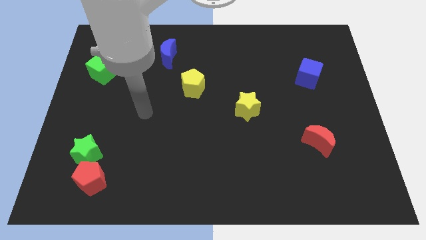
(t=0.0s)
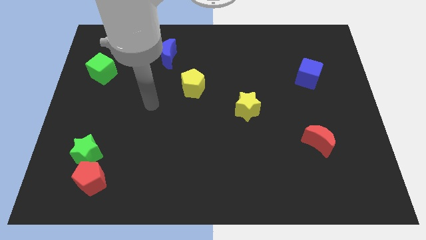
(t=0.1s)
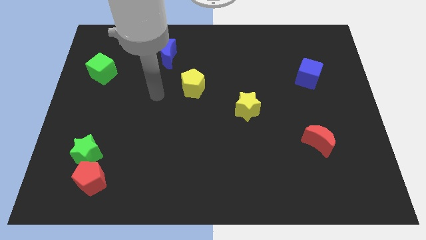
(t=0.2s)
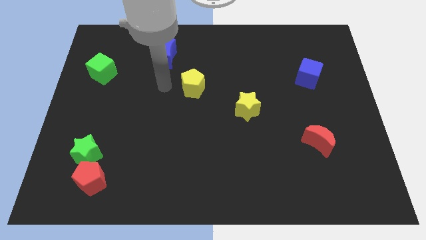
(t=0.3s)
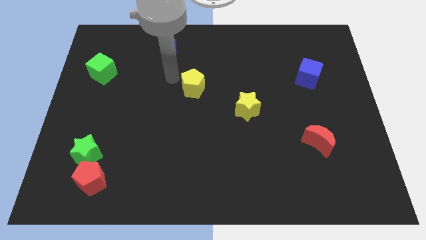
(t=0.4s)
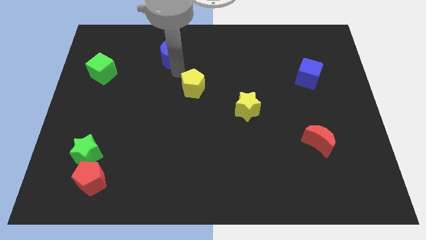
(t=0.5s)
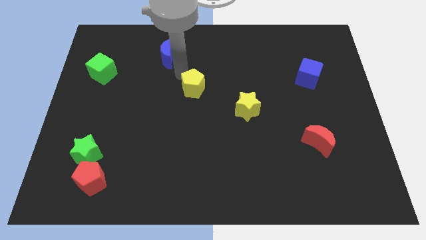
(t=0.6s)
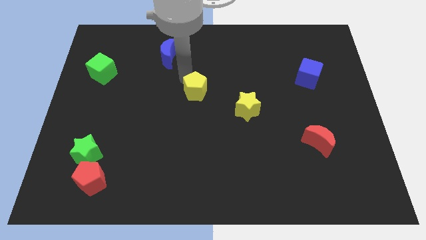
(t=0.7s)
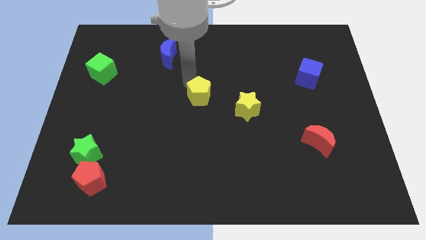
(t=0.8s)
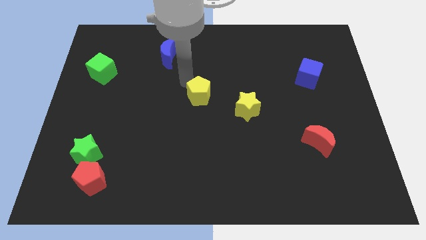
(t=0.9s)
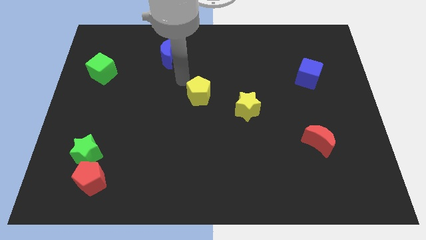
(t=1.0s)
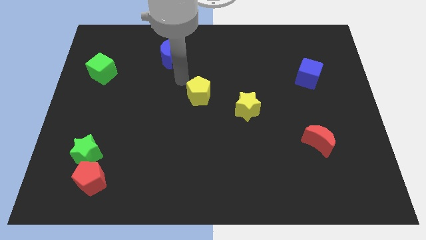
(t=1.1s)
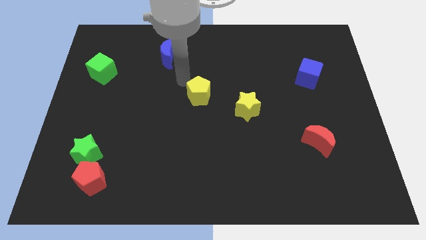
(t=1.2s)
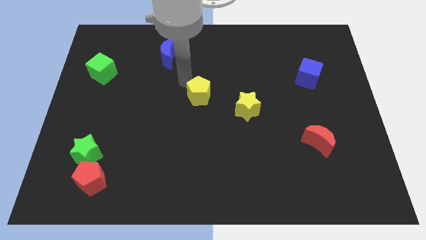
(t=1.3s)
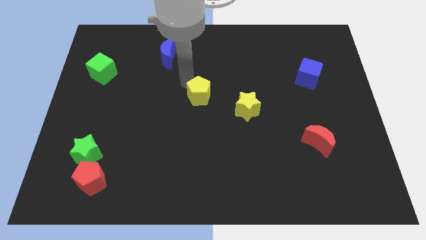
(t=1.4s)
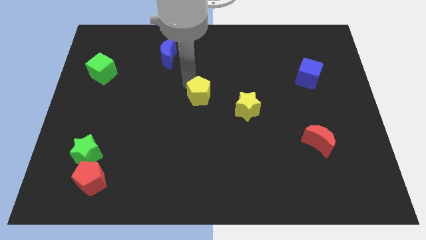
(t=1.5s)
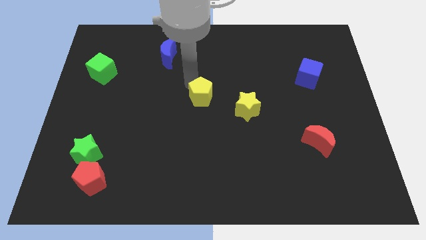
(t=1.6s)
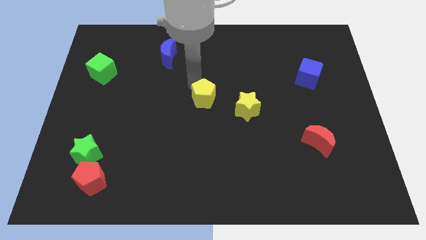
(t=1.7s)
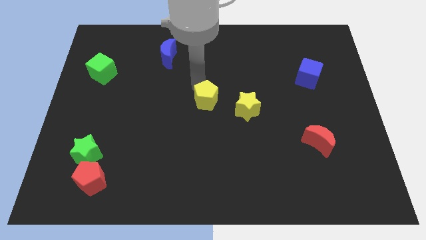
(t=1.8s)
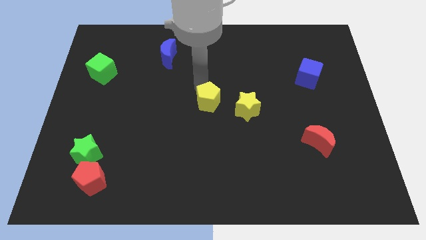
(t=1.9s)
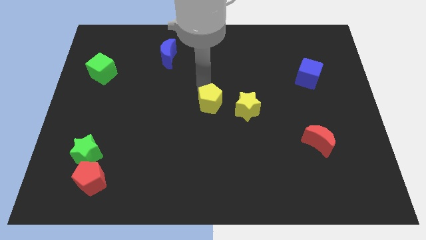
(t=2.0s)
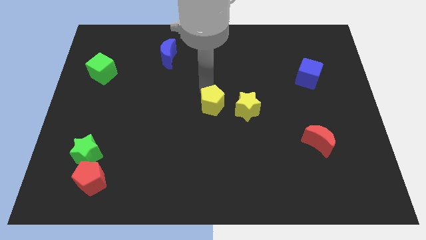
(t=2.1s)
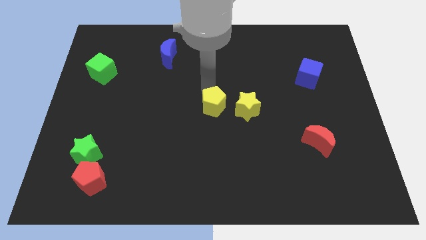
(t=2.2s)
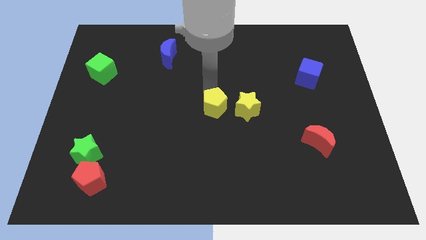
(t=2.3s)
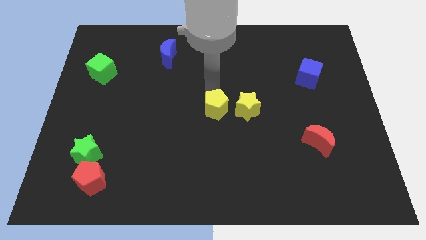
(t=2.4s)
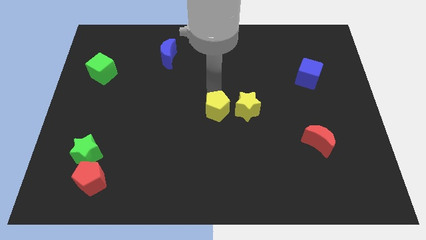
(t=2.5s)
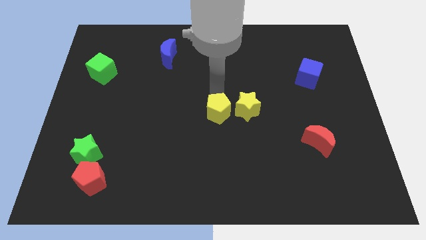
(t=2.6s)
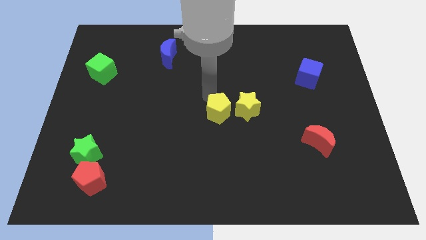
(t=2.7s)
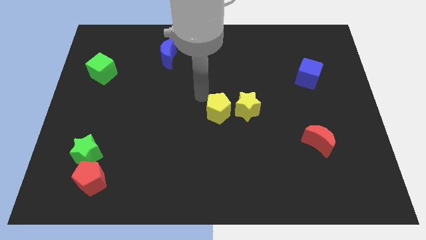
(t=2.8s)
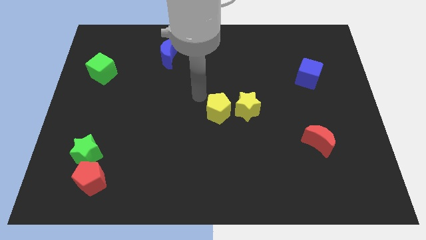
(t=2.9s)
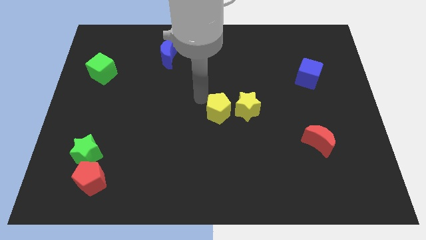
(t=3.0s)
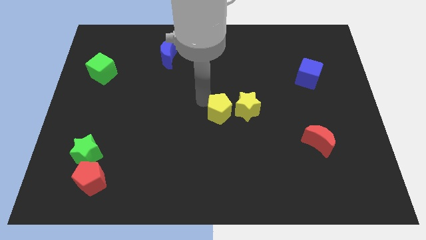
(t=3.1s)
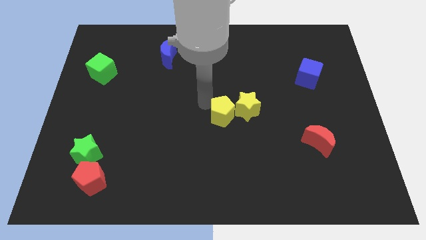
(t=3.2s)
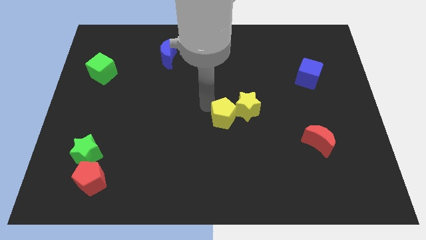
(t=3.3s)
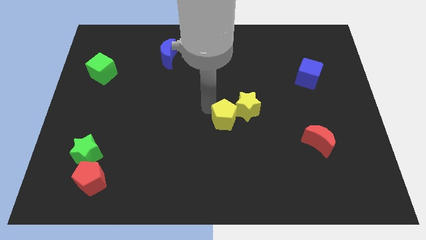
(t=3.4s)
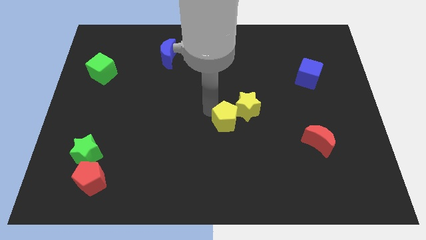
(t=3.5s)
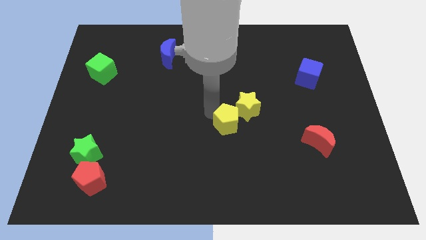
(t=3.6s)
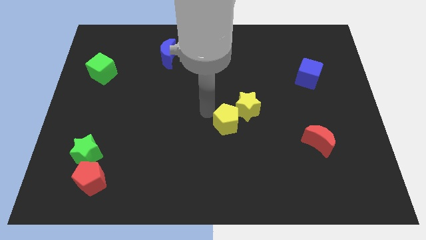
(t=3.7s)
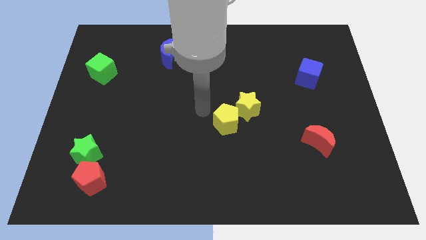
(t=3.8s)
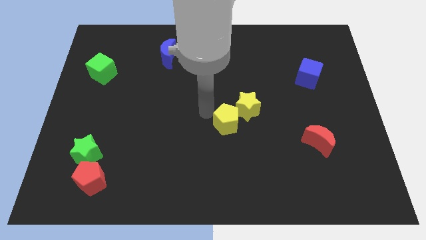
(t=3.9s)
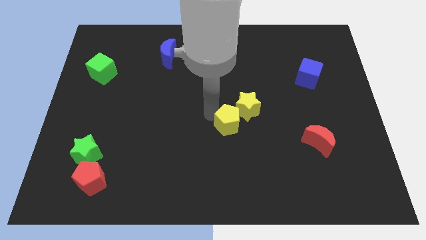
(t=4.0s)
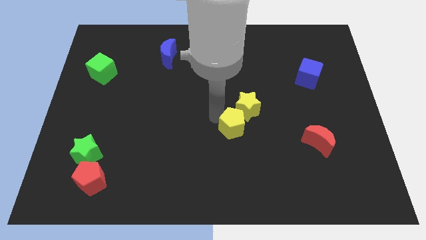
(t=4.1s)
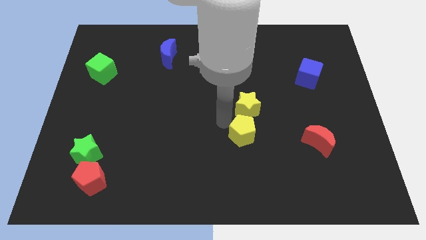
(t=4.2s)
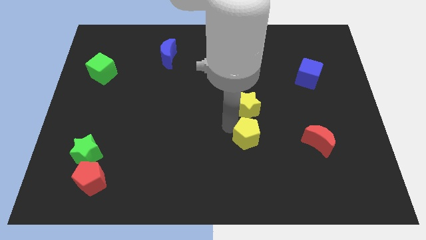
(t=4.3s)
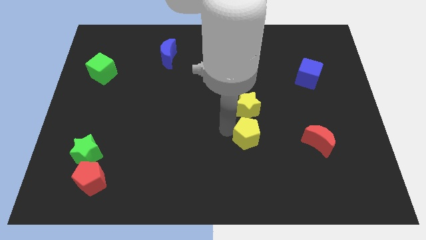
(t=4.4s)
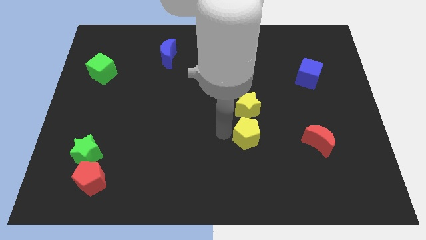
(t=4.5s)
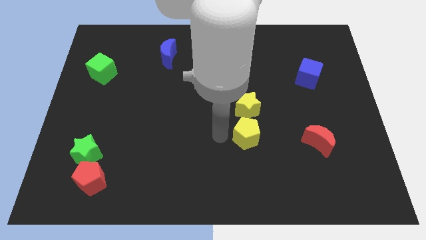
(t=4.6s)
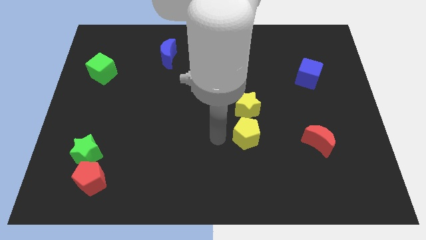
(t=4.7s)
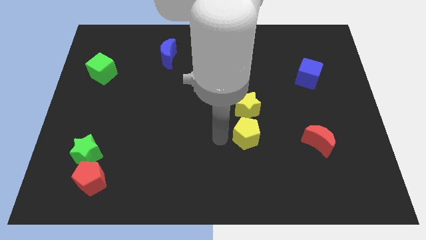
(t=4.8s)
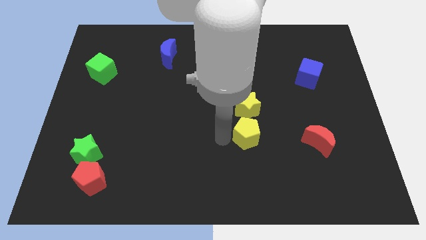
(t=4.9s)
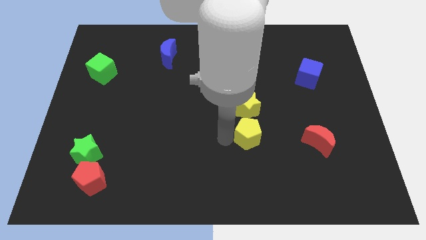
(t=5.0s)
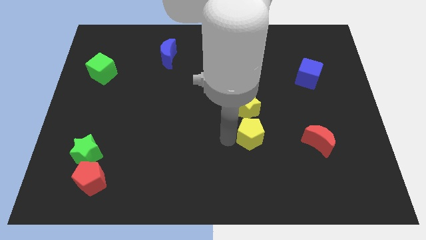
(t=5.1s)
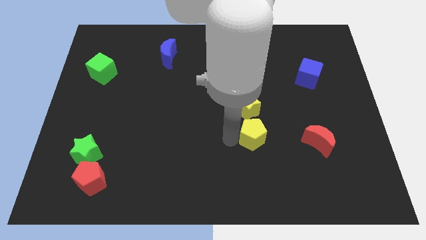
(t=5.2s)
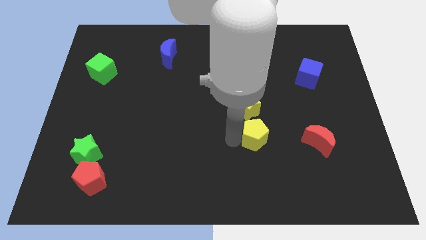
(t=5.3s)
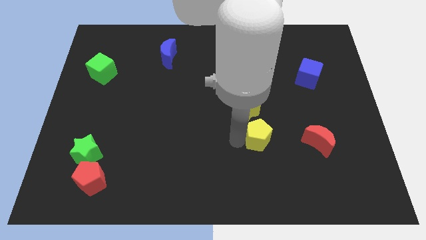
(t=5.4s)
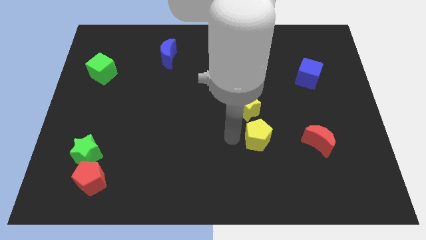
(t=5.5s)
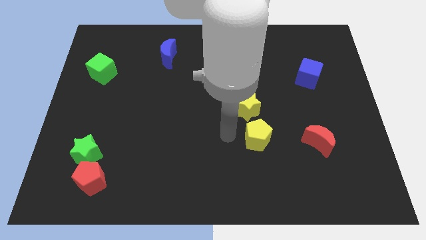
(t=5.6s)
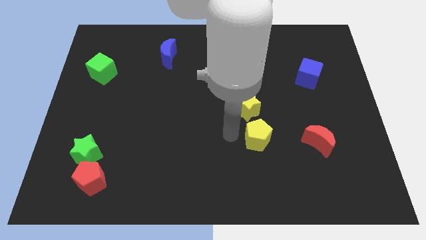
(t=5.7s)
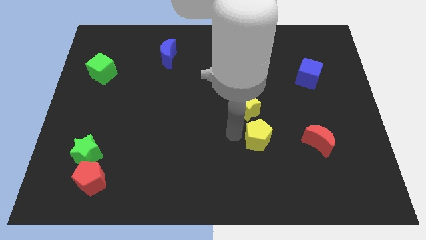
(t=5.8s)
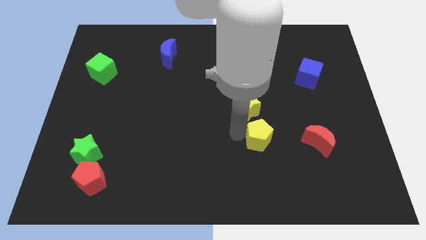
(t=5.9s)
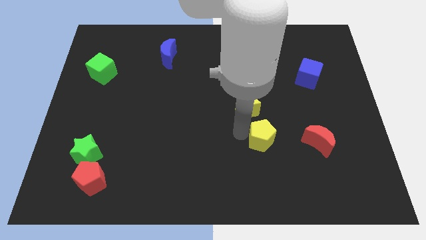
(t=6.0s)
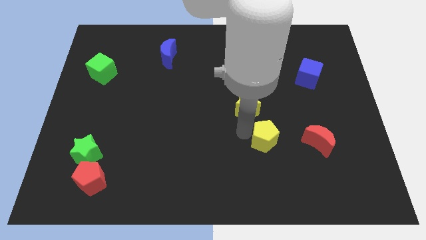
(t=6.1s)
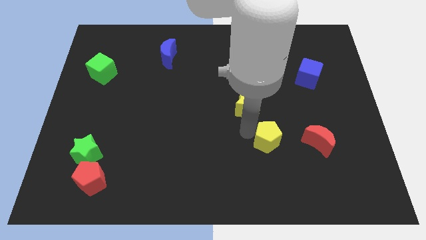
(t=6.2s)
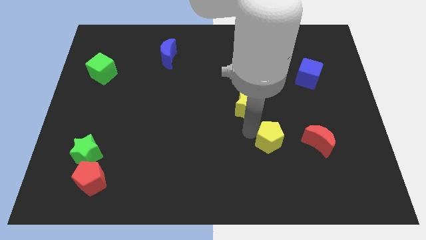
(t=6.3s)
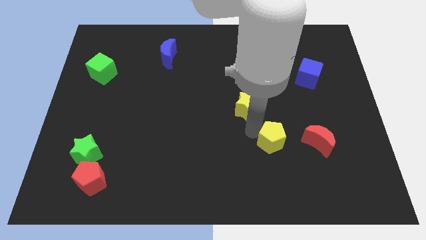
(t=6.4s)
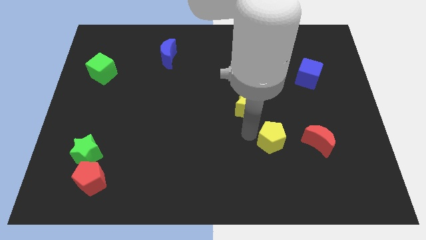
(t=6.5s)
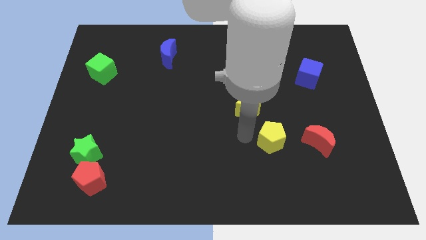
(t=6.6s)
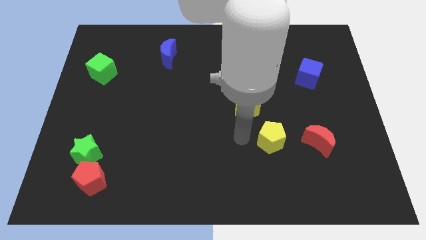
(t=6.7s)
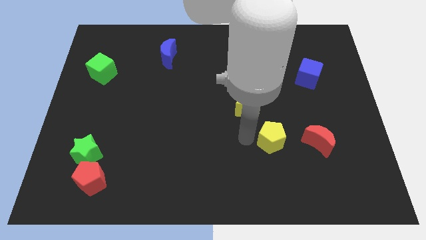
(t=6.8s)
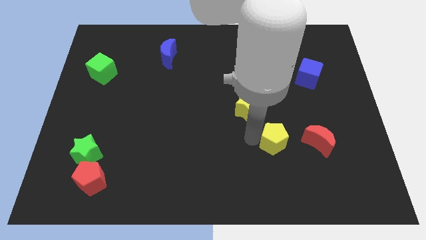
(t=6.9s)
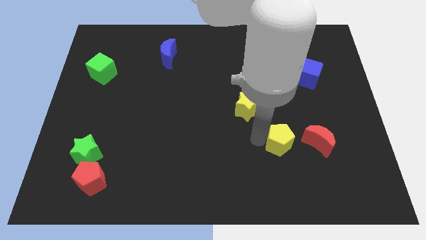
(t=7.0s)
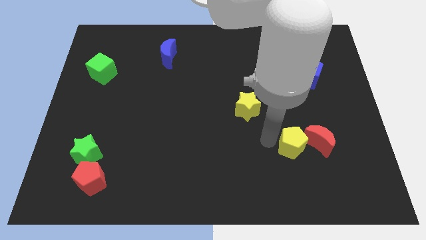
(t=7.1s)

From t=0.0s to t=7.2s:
move the yellow pentagon to the red moon
